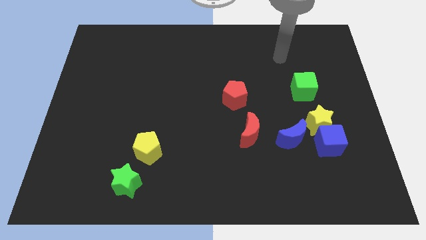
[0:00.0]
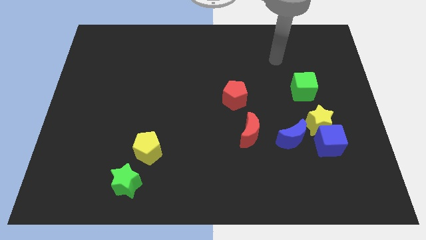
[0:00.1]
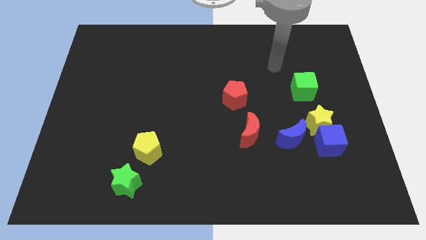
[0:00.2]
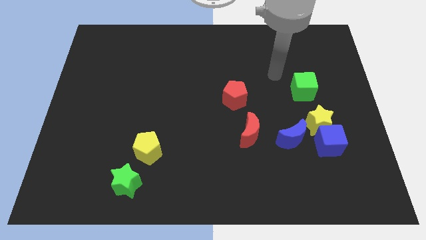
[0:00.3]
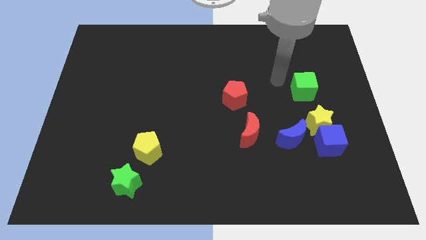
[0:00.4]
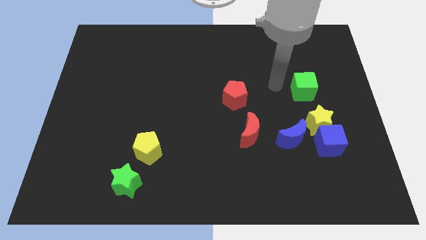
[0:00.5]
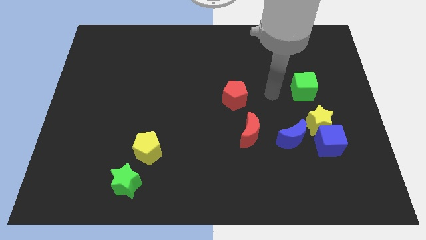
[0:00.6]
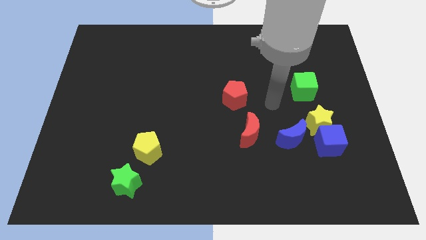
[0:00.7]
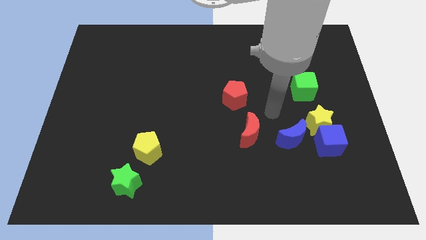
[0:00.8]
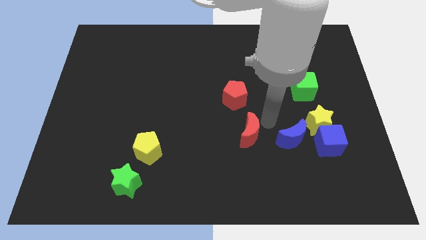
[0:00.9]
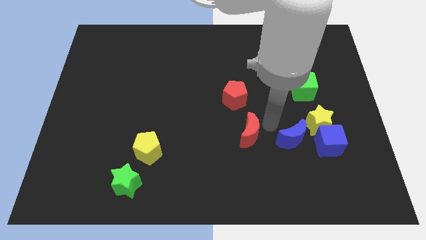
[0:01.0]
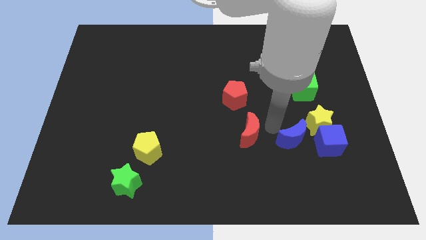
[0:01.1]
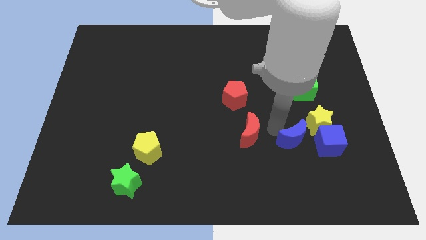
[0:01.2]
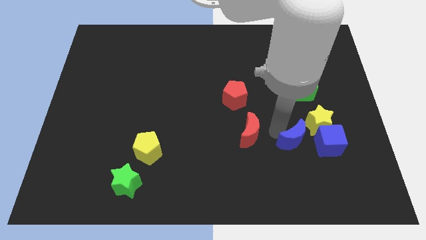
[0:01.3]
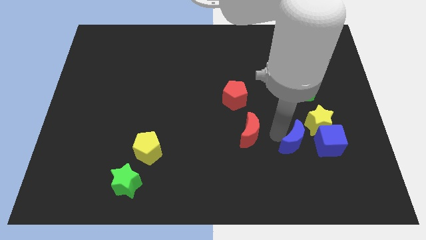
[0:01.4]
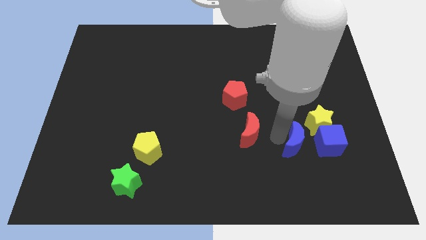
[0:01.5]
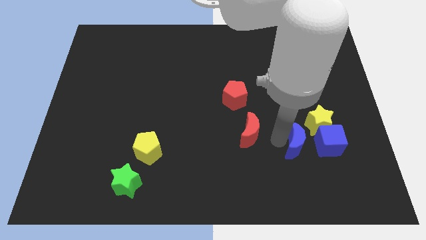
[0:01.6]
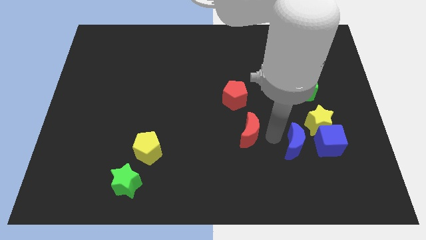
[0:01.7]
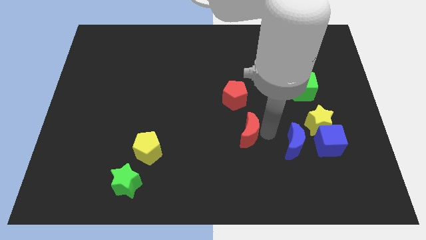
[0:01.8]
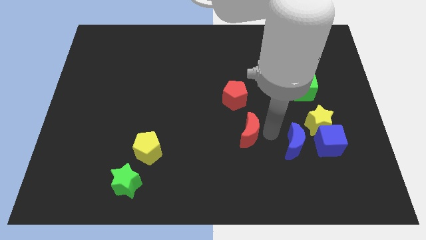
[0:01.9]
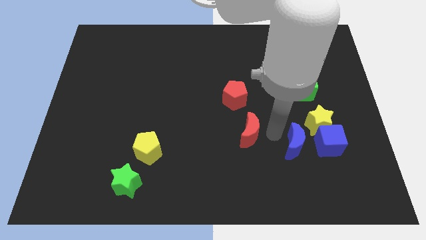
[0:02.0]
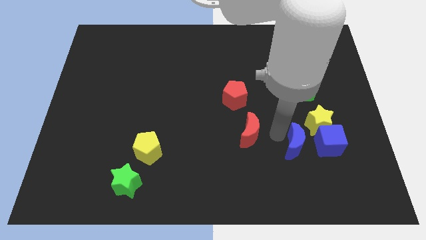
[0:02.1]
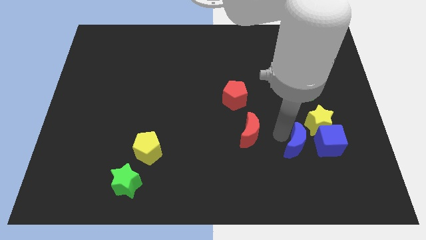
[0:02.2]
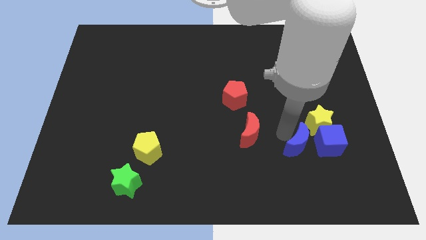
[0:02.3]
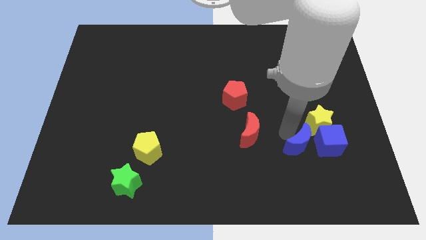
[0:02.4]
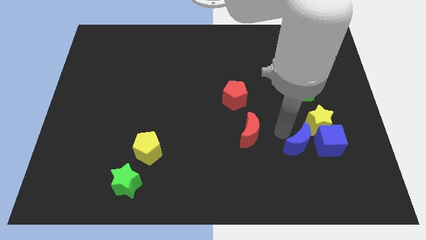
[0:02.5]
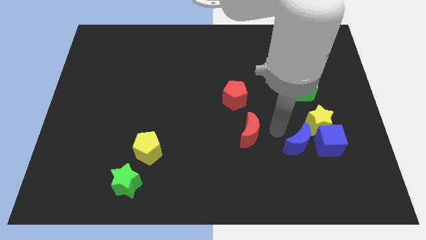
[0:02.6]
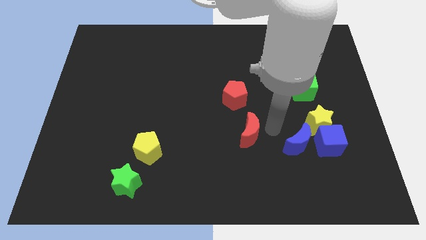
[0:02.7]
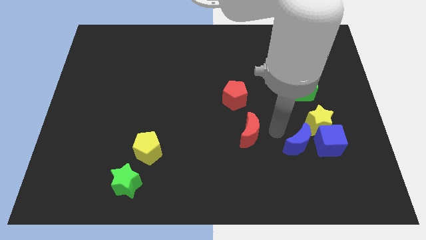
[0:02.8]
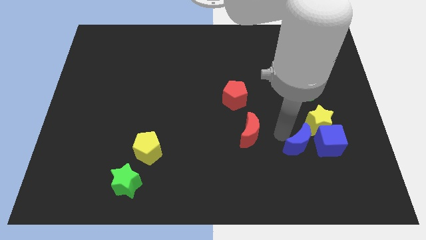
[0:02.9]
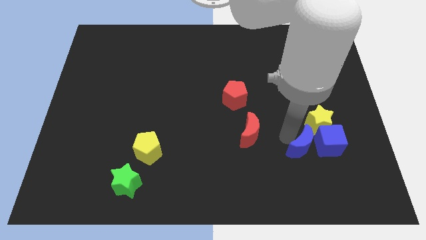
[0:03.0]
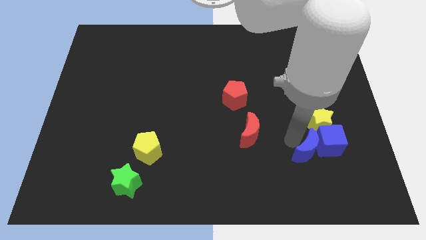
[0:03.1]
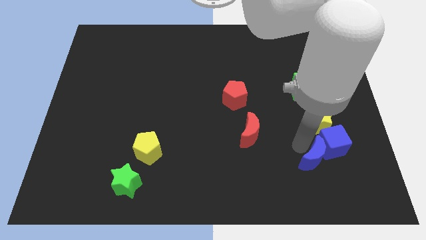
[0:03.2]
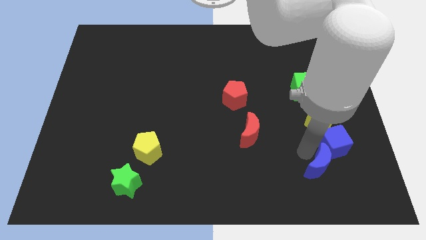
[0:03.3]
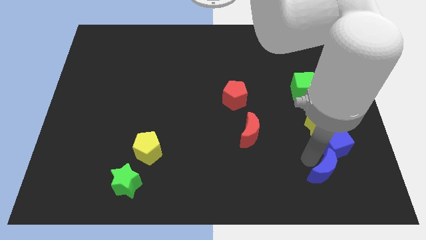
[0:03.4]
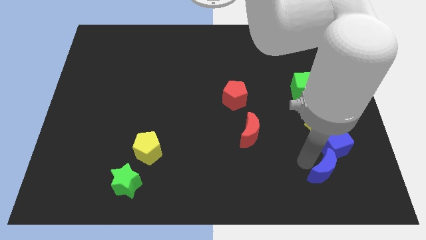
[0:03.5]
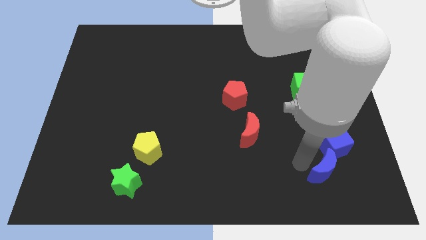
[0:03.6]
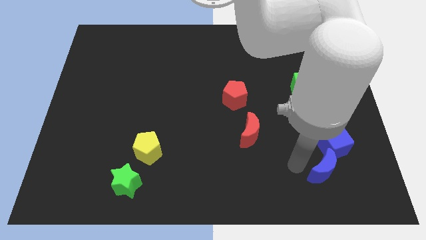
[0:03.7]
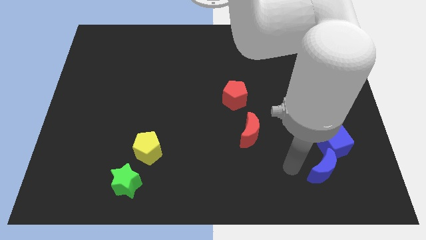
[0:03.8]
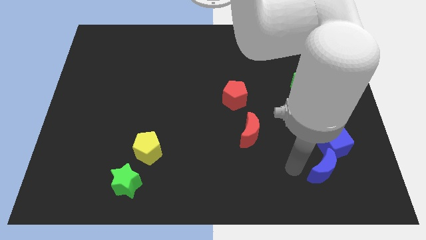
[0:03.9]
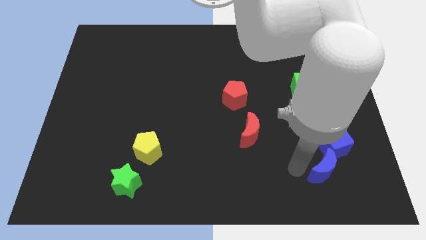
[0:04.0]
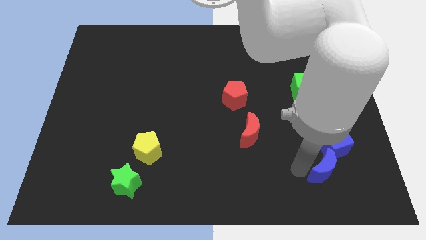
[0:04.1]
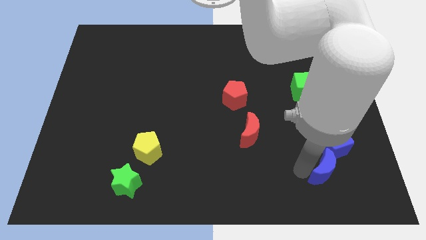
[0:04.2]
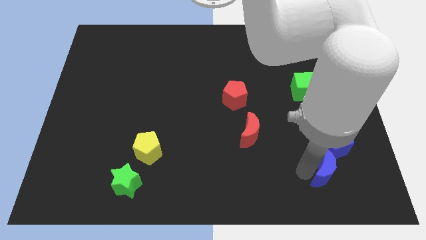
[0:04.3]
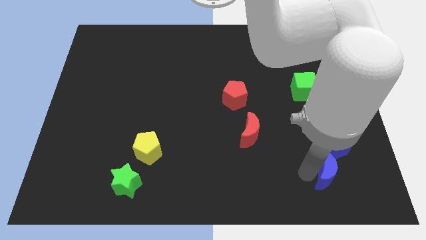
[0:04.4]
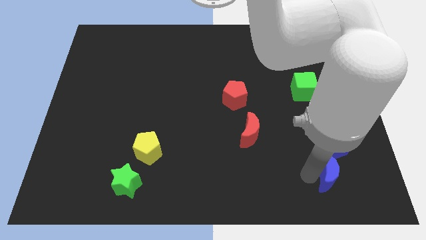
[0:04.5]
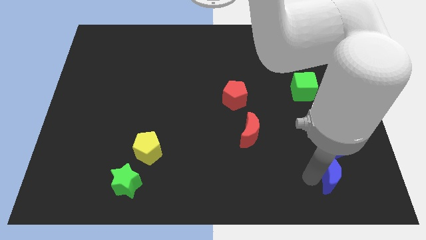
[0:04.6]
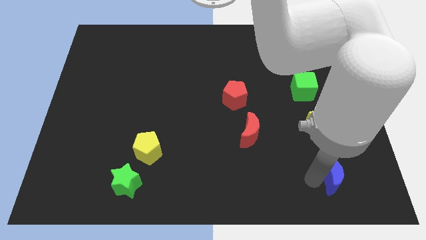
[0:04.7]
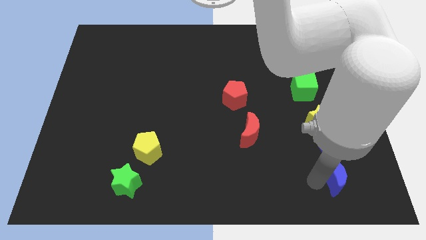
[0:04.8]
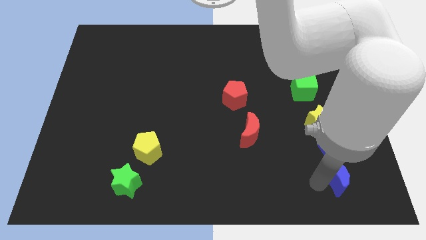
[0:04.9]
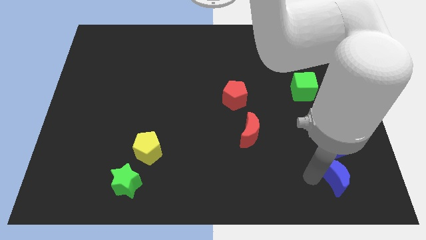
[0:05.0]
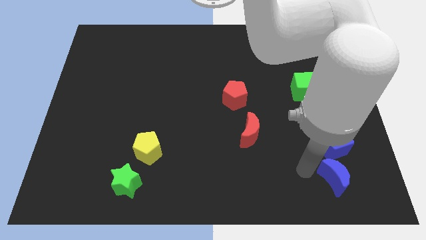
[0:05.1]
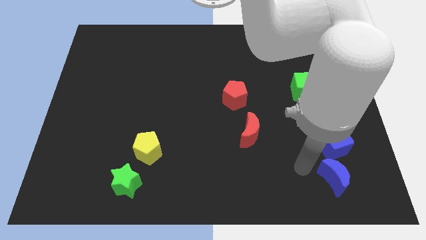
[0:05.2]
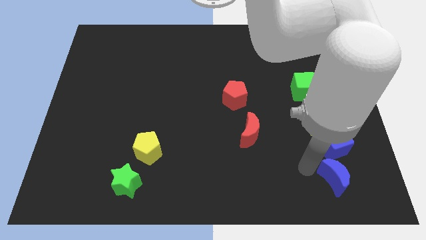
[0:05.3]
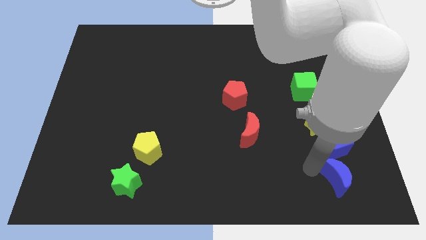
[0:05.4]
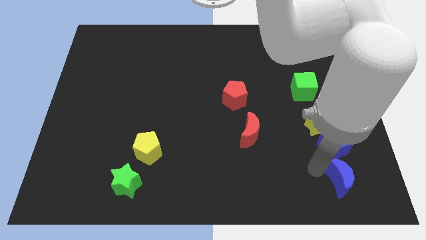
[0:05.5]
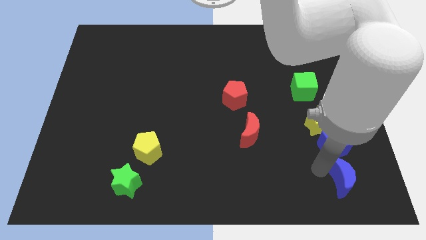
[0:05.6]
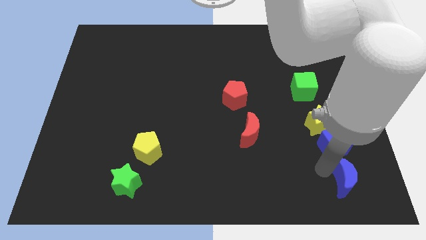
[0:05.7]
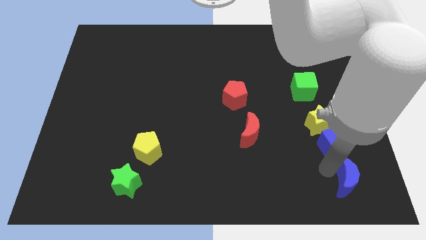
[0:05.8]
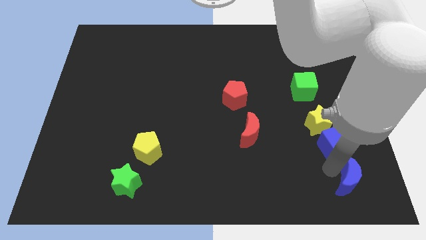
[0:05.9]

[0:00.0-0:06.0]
slide the blue moon to the bottom right corner
